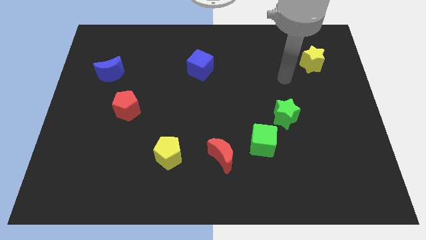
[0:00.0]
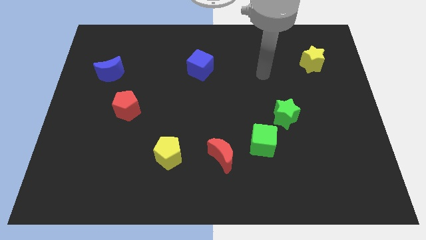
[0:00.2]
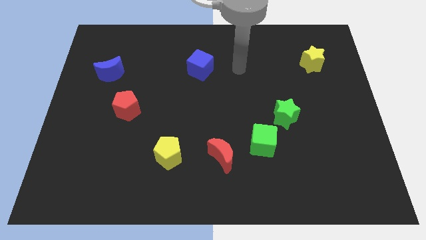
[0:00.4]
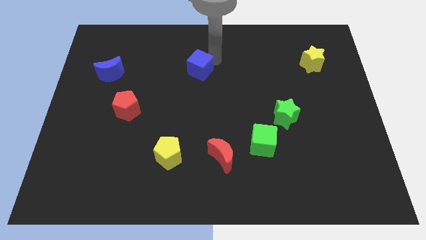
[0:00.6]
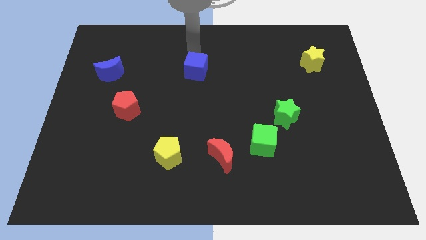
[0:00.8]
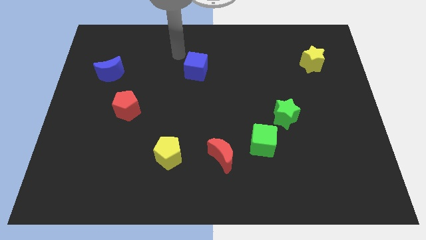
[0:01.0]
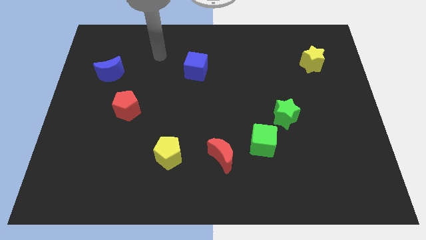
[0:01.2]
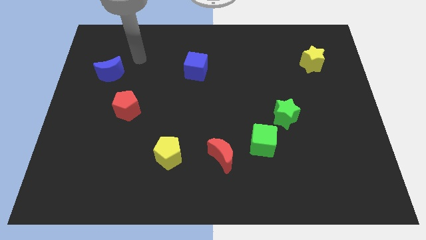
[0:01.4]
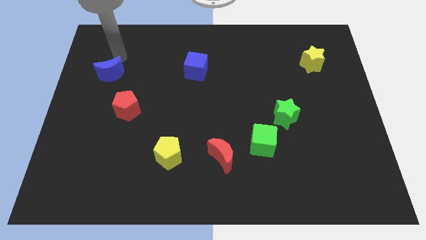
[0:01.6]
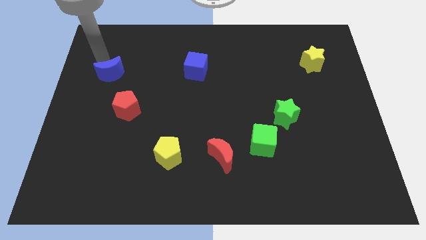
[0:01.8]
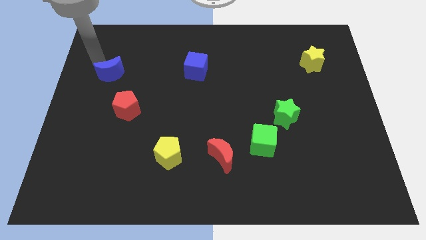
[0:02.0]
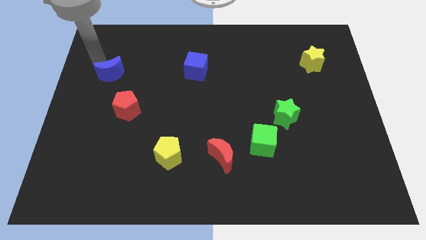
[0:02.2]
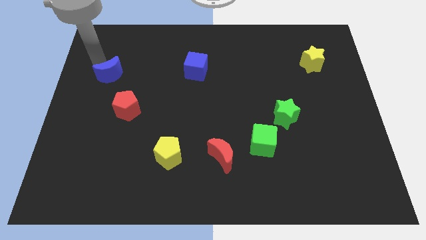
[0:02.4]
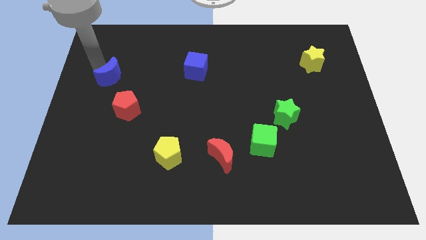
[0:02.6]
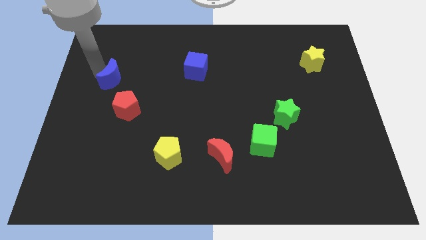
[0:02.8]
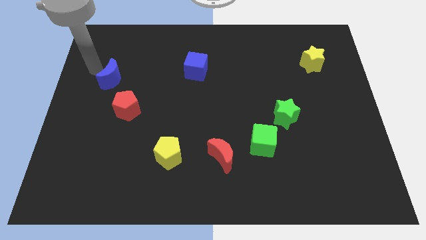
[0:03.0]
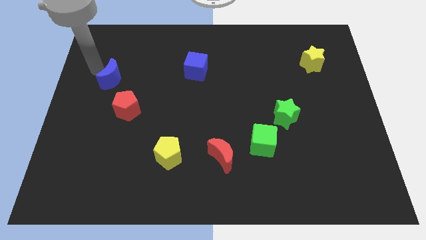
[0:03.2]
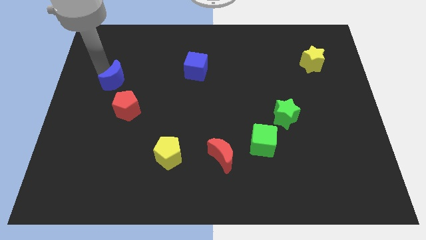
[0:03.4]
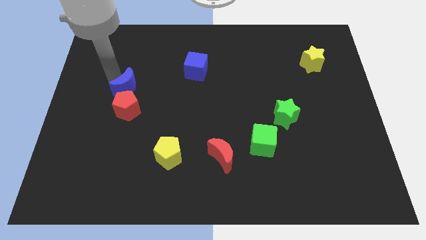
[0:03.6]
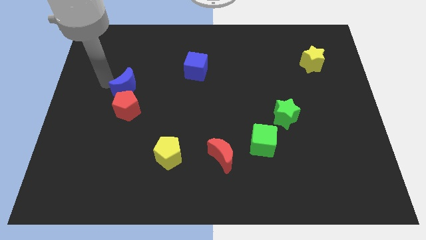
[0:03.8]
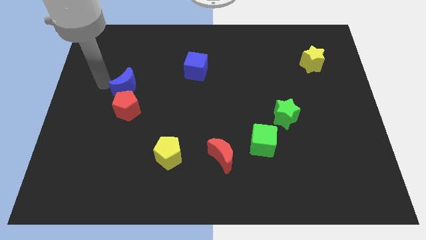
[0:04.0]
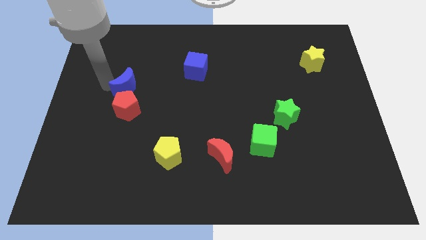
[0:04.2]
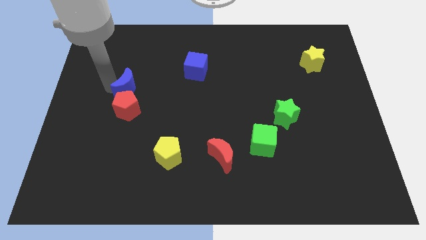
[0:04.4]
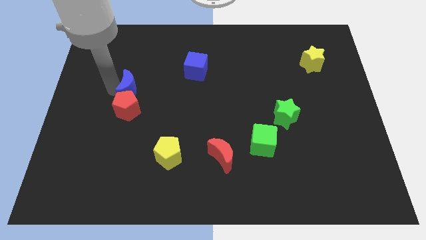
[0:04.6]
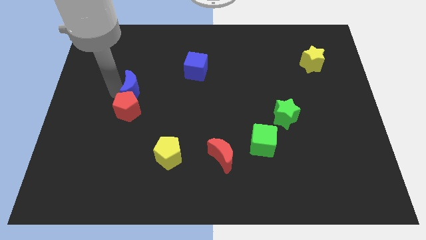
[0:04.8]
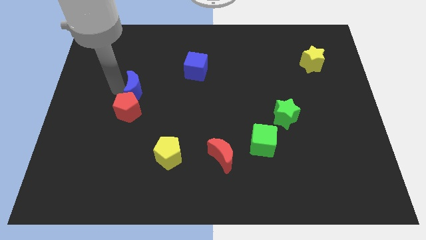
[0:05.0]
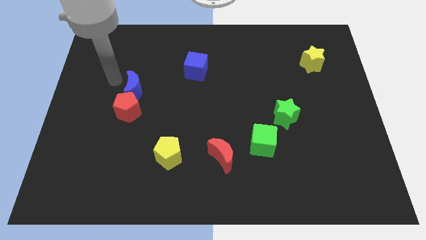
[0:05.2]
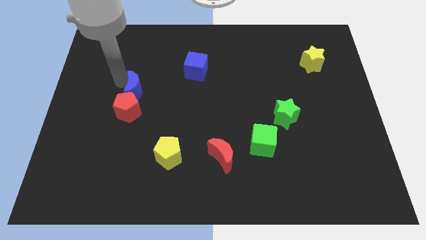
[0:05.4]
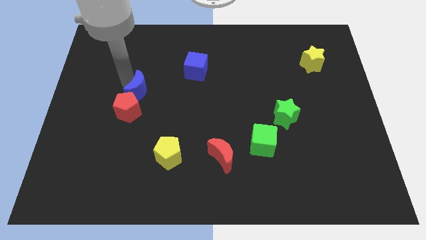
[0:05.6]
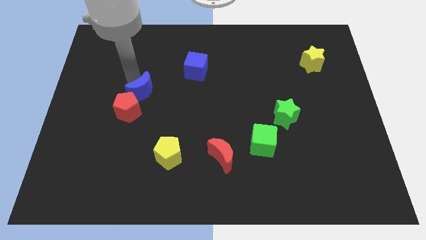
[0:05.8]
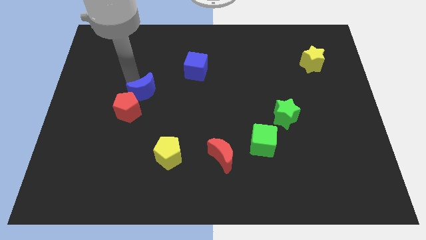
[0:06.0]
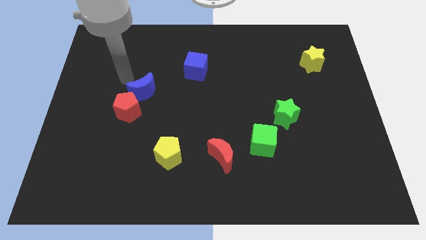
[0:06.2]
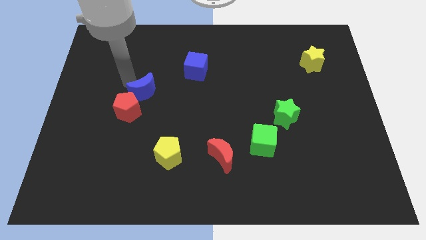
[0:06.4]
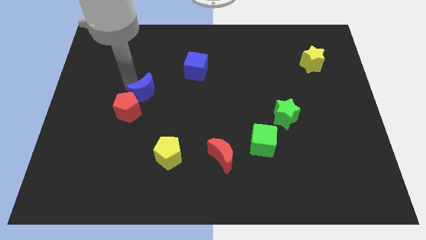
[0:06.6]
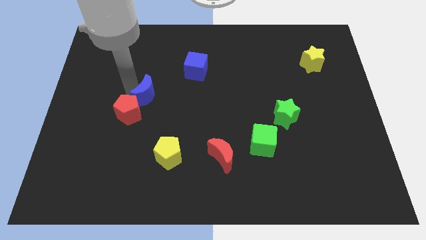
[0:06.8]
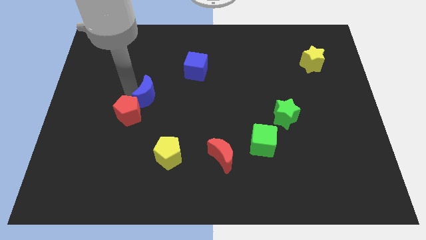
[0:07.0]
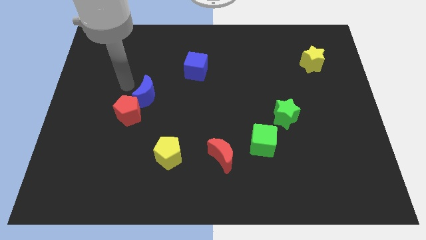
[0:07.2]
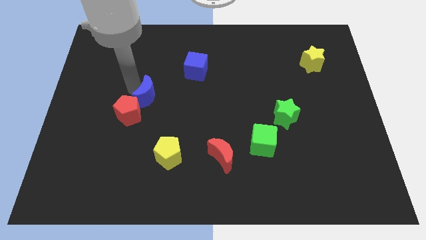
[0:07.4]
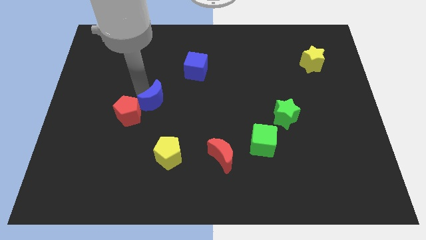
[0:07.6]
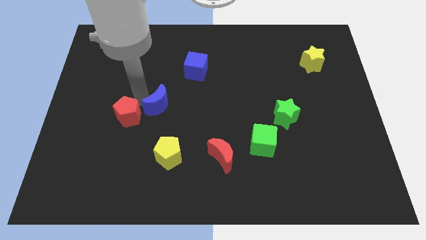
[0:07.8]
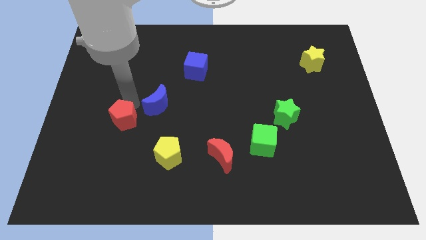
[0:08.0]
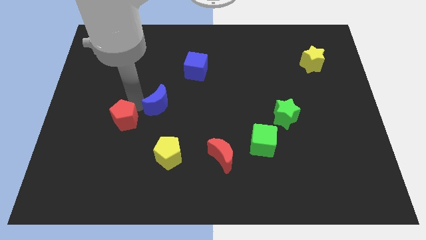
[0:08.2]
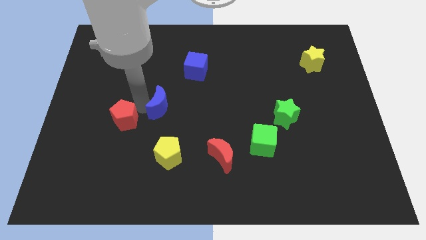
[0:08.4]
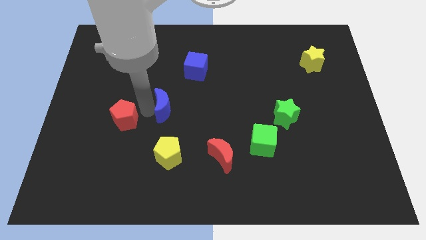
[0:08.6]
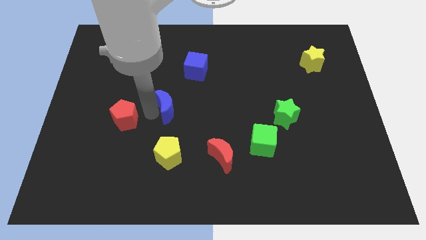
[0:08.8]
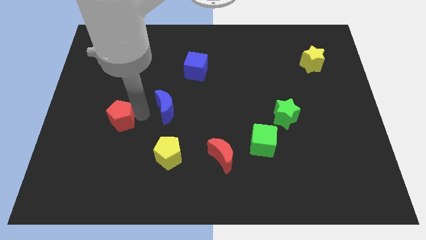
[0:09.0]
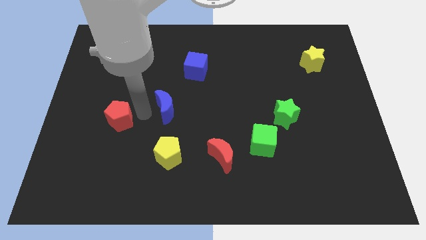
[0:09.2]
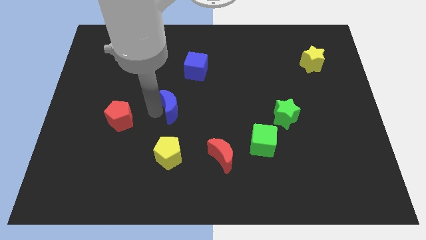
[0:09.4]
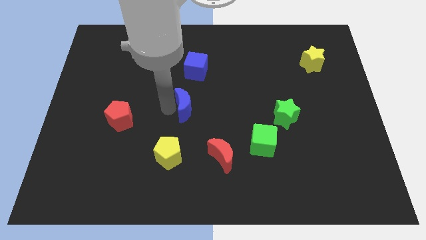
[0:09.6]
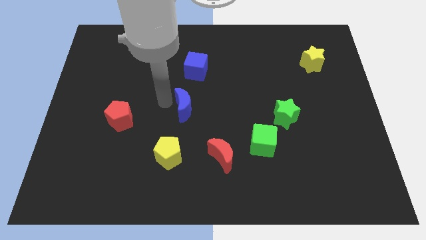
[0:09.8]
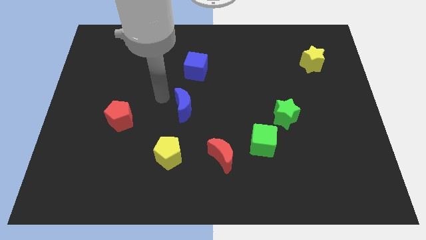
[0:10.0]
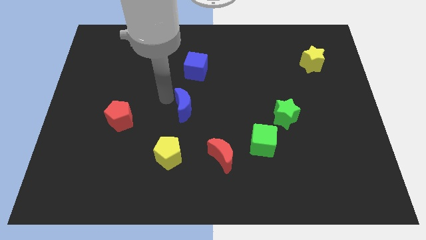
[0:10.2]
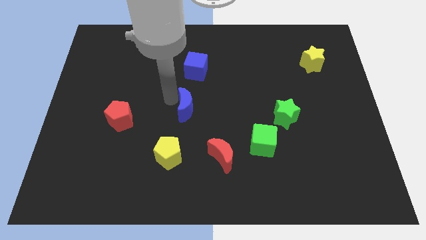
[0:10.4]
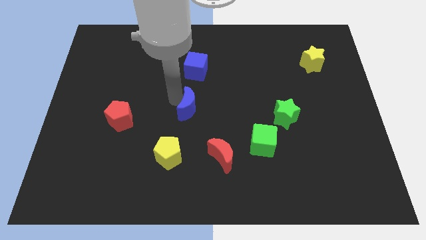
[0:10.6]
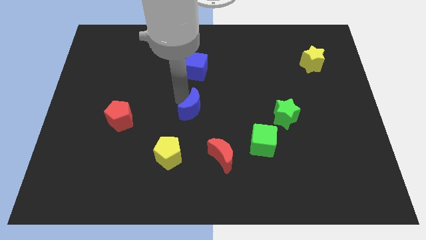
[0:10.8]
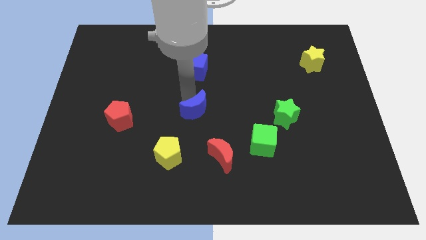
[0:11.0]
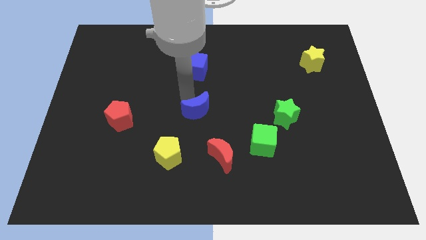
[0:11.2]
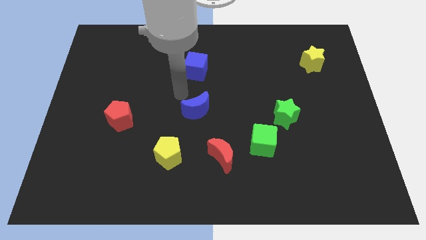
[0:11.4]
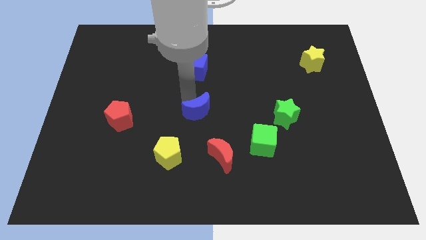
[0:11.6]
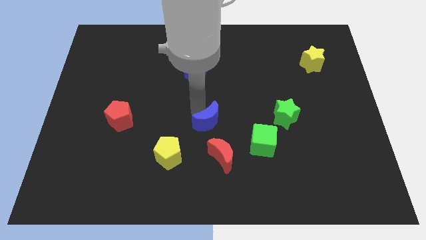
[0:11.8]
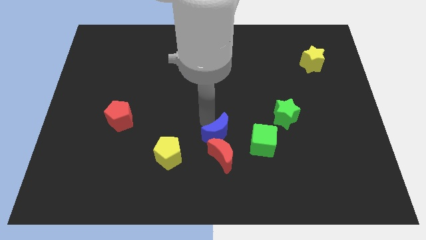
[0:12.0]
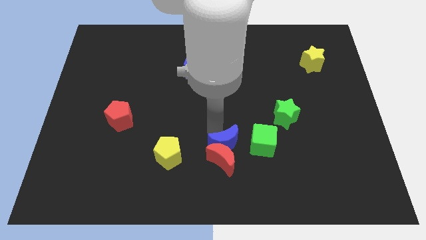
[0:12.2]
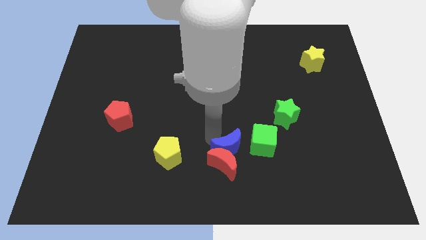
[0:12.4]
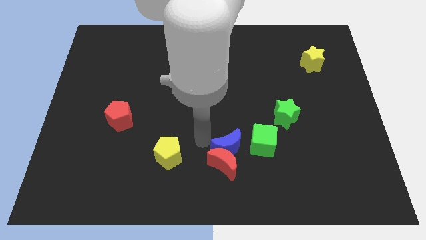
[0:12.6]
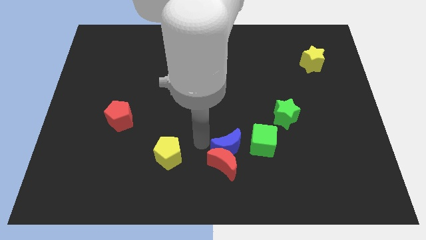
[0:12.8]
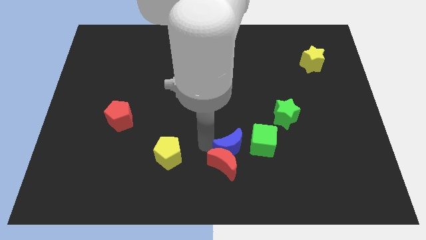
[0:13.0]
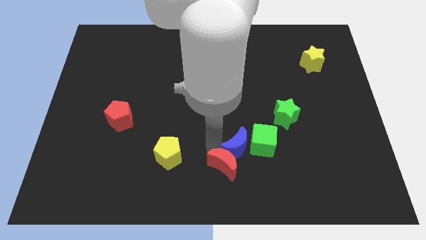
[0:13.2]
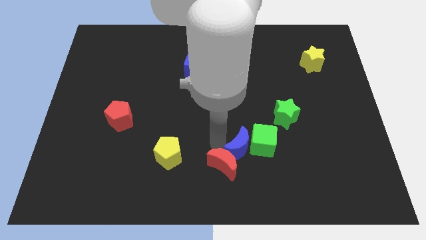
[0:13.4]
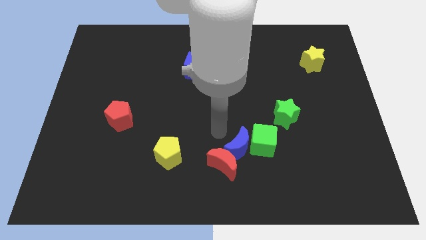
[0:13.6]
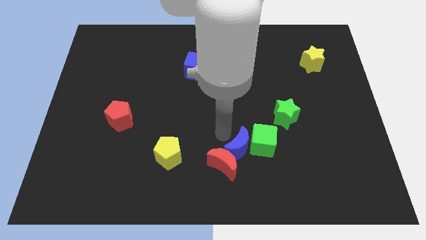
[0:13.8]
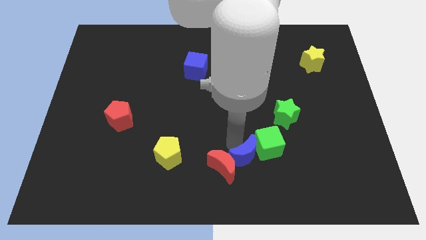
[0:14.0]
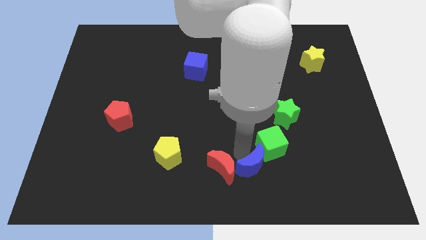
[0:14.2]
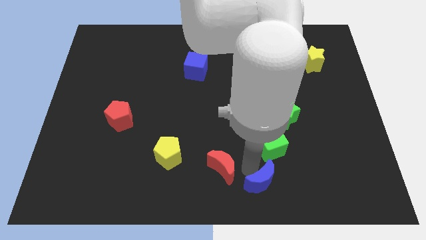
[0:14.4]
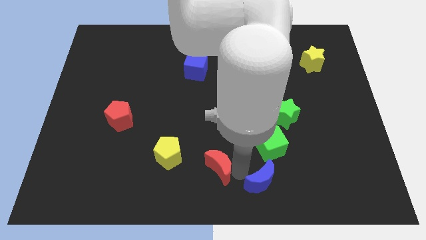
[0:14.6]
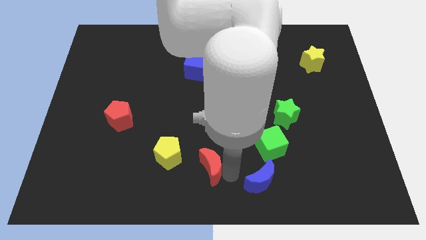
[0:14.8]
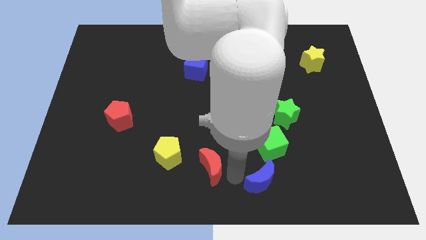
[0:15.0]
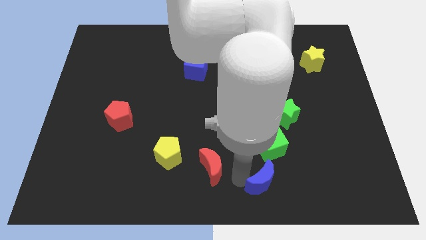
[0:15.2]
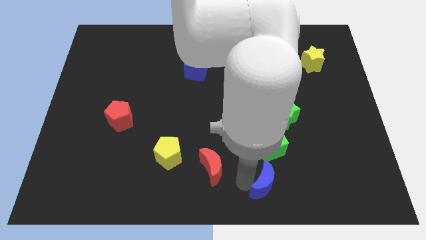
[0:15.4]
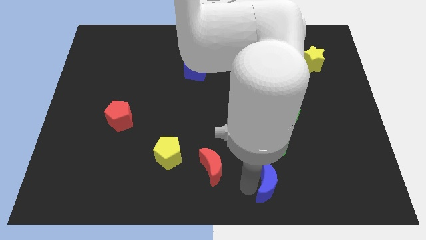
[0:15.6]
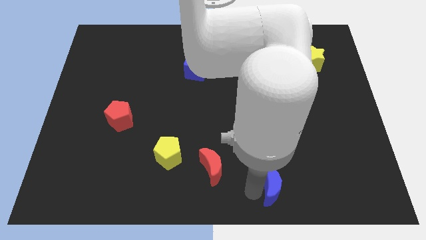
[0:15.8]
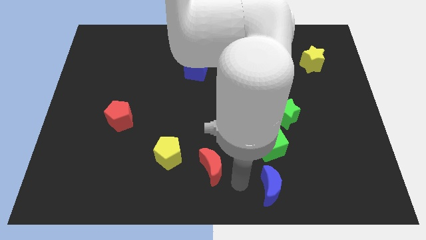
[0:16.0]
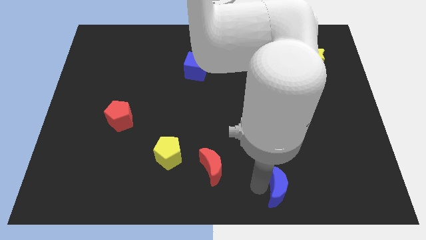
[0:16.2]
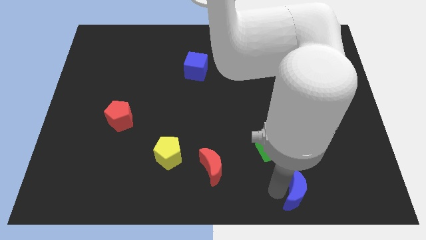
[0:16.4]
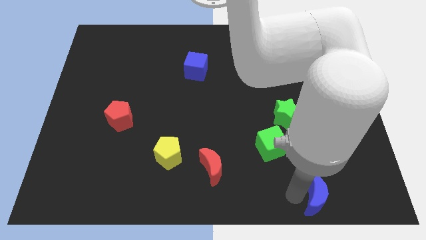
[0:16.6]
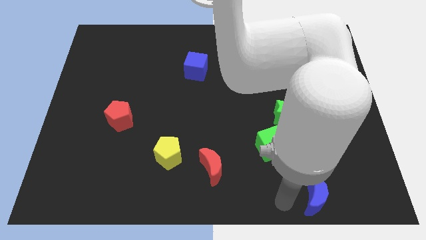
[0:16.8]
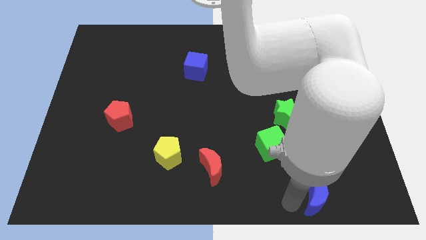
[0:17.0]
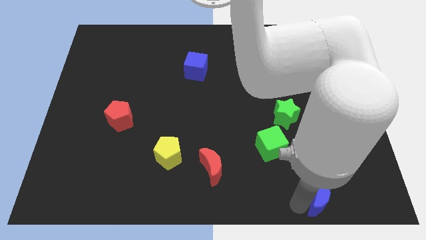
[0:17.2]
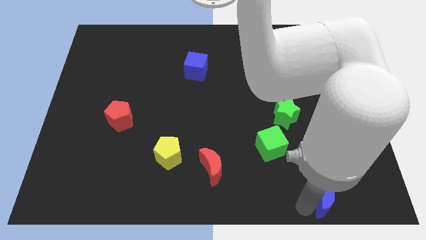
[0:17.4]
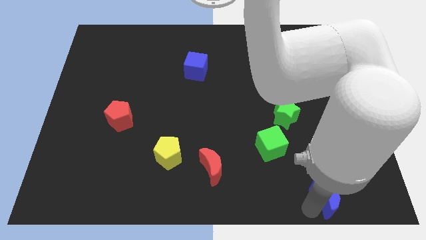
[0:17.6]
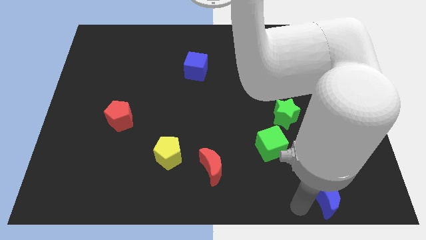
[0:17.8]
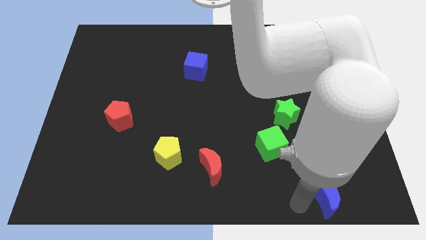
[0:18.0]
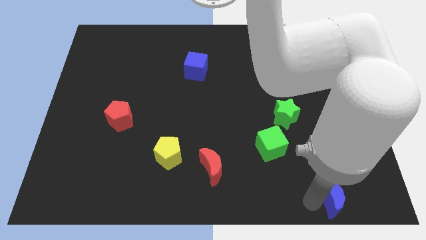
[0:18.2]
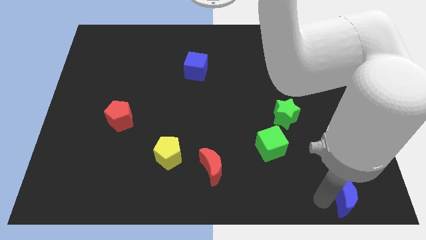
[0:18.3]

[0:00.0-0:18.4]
slide the blue moon to the bottom right
